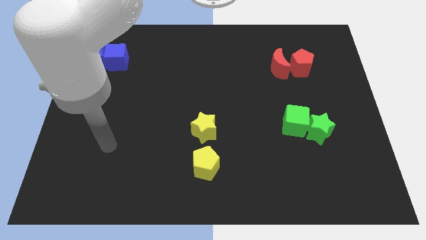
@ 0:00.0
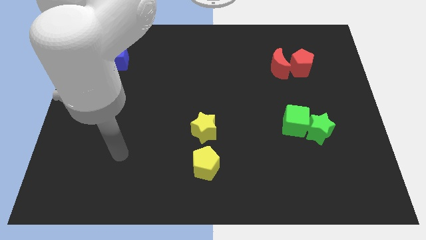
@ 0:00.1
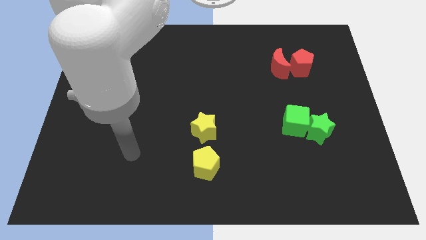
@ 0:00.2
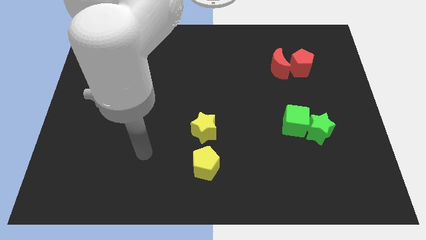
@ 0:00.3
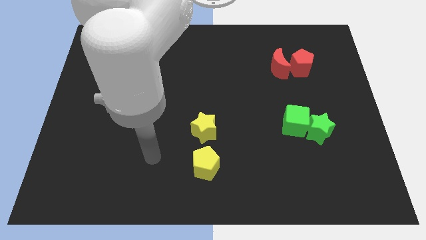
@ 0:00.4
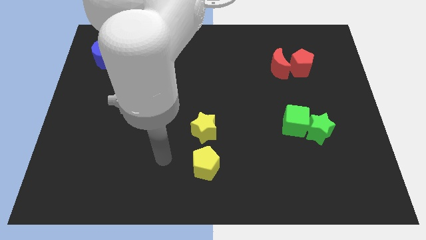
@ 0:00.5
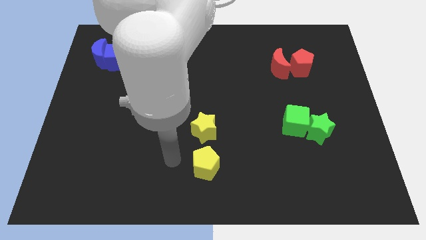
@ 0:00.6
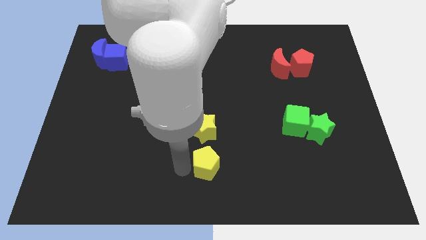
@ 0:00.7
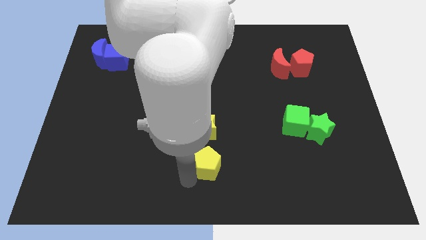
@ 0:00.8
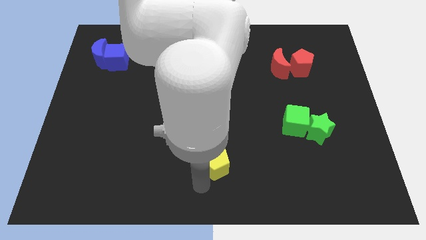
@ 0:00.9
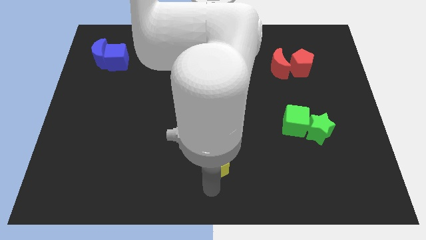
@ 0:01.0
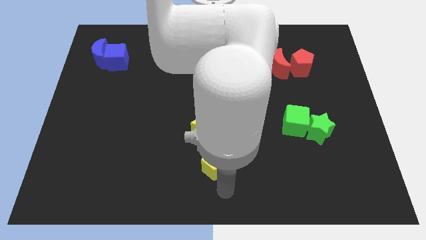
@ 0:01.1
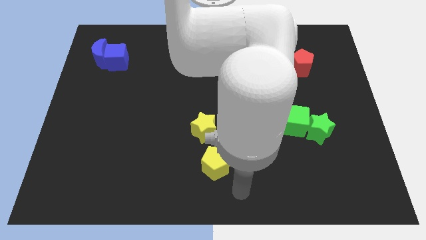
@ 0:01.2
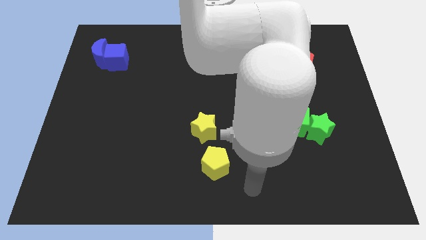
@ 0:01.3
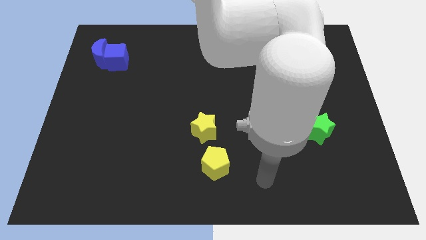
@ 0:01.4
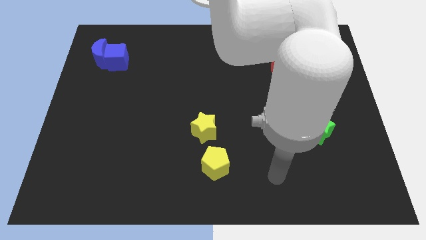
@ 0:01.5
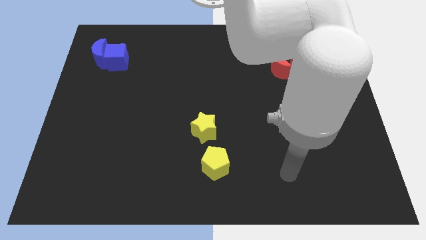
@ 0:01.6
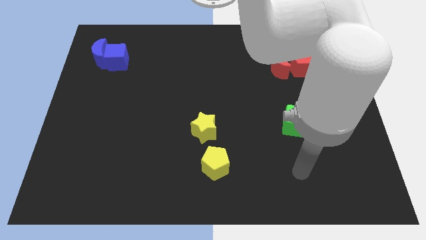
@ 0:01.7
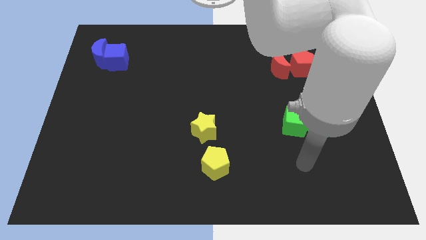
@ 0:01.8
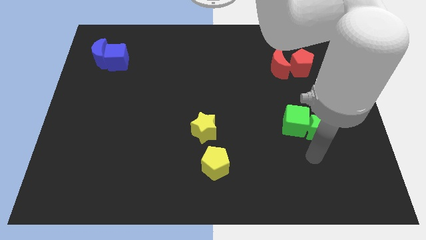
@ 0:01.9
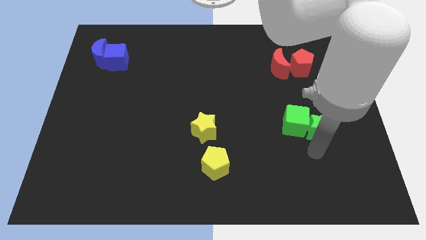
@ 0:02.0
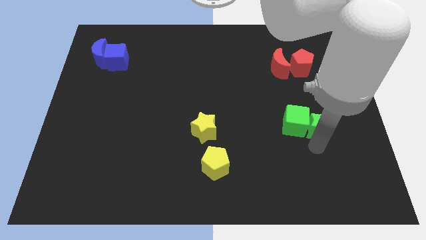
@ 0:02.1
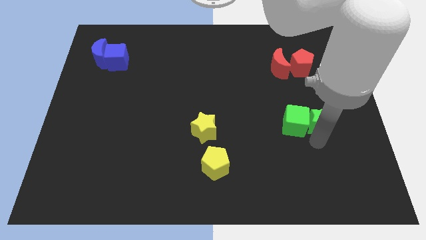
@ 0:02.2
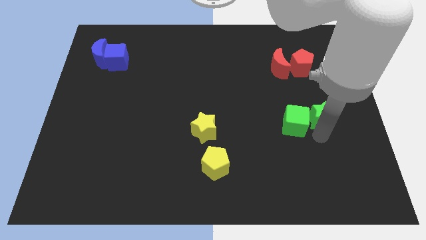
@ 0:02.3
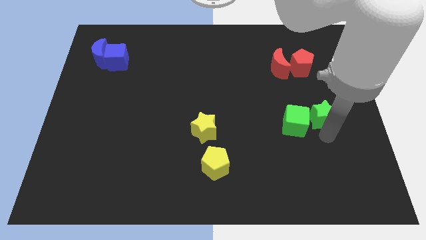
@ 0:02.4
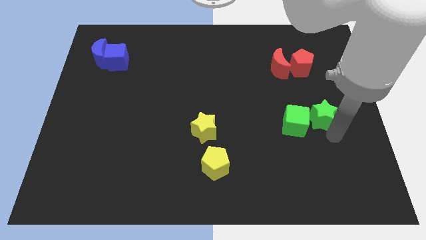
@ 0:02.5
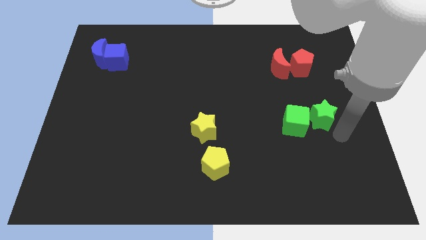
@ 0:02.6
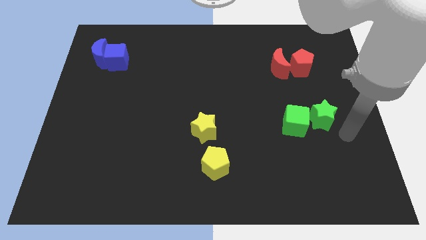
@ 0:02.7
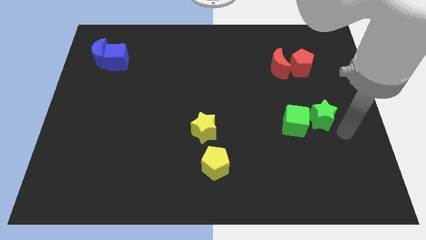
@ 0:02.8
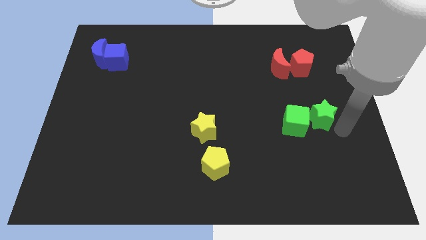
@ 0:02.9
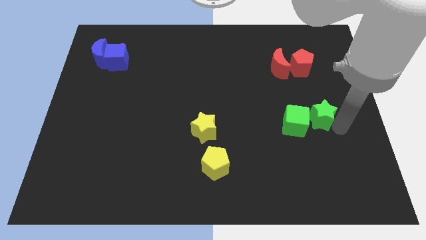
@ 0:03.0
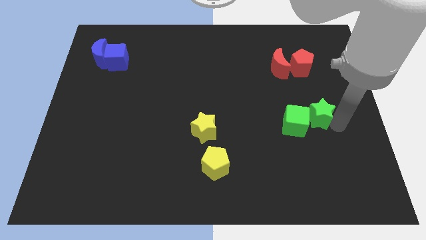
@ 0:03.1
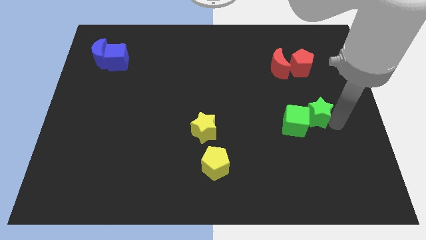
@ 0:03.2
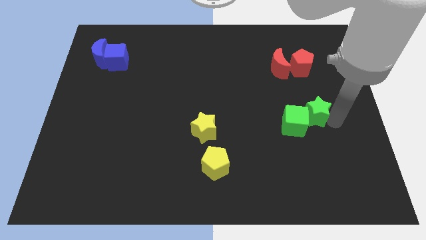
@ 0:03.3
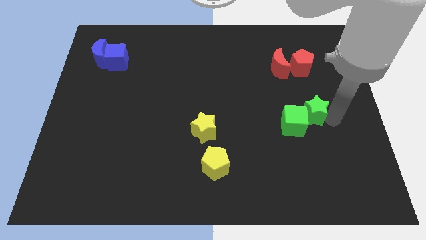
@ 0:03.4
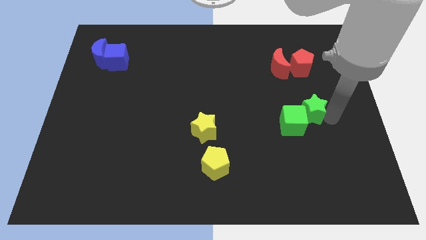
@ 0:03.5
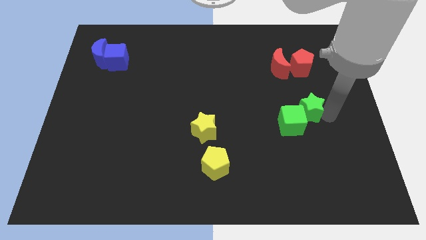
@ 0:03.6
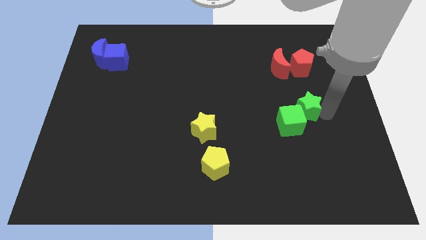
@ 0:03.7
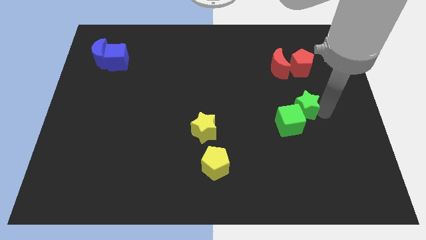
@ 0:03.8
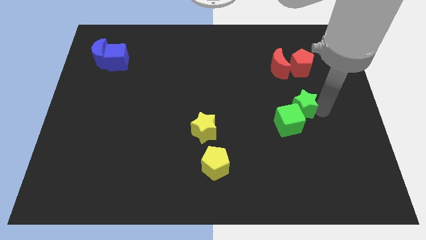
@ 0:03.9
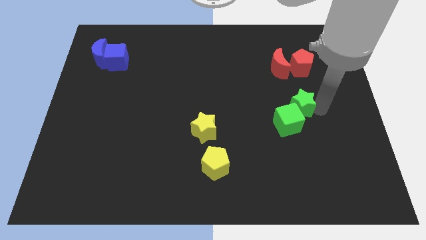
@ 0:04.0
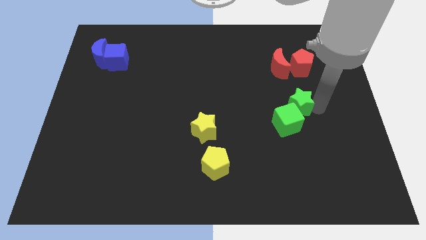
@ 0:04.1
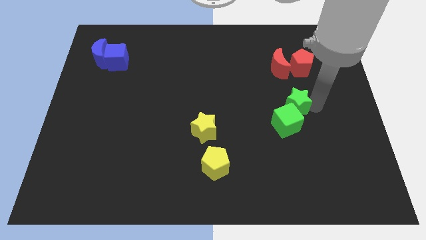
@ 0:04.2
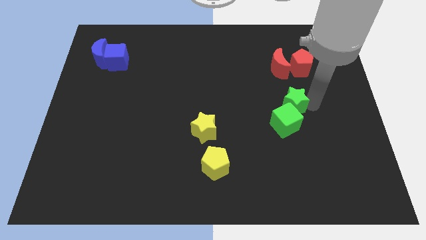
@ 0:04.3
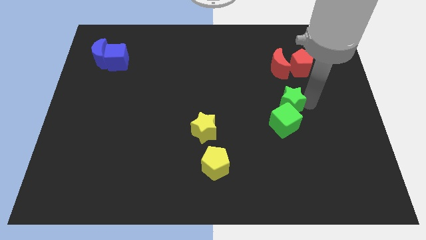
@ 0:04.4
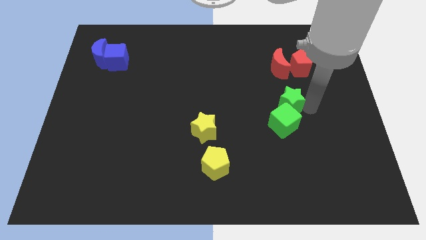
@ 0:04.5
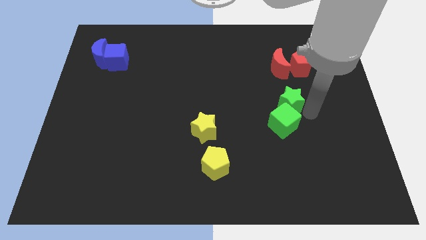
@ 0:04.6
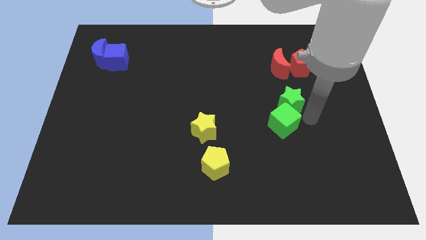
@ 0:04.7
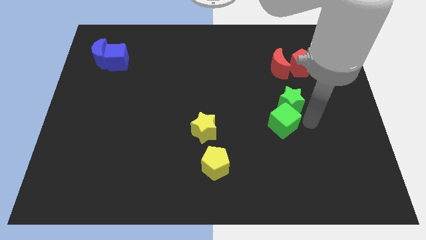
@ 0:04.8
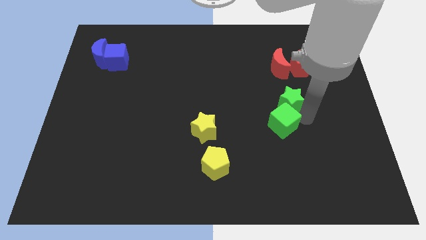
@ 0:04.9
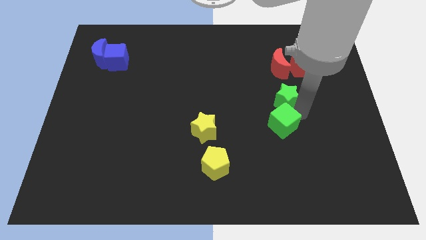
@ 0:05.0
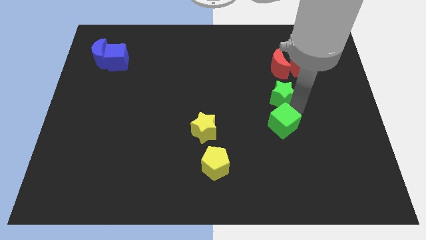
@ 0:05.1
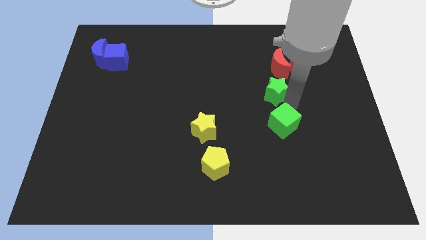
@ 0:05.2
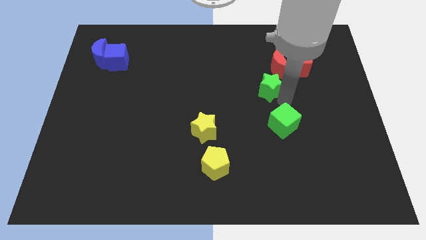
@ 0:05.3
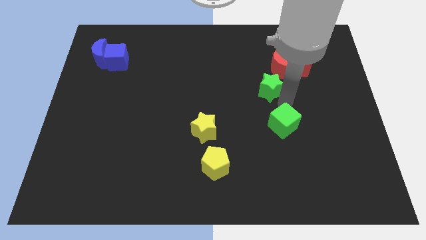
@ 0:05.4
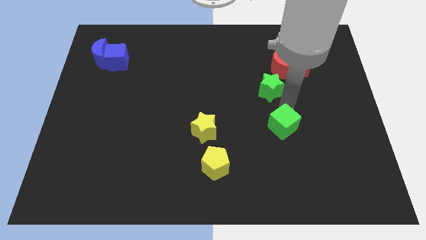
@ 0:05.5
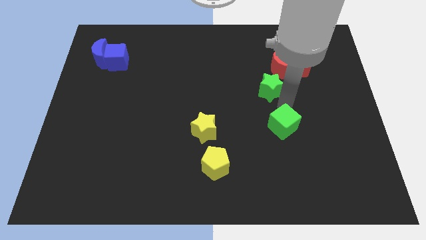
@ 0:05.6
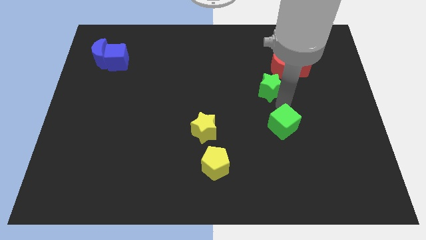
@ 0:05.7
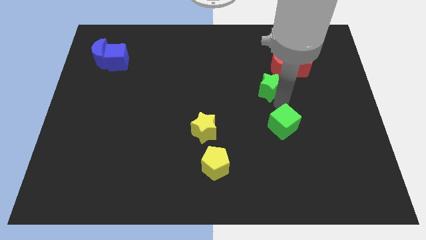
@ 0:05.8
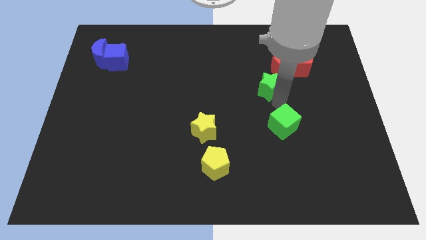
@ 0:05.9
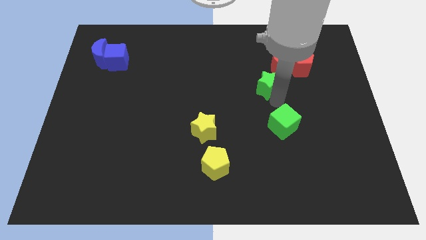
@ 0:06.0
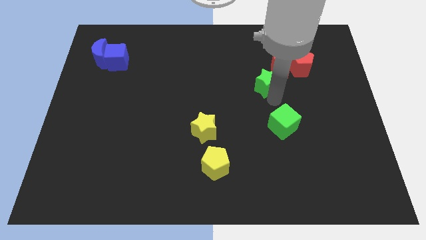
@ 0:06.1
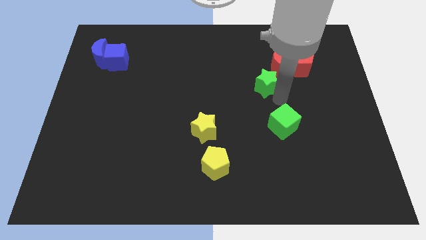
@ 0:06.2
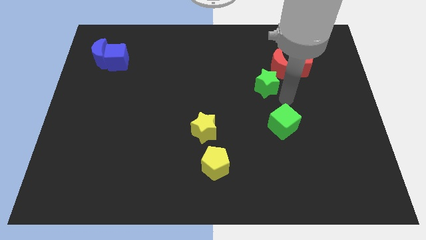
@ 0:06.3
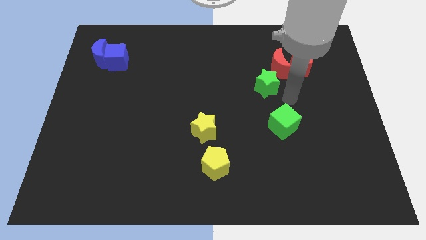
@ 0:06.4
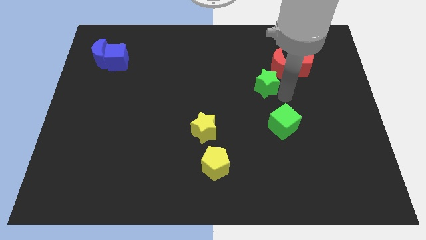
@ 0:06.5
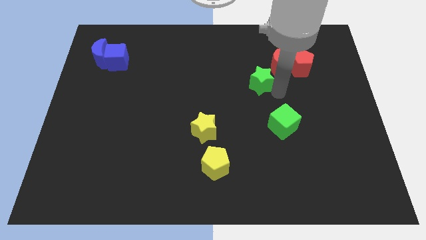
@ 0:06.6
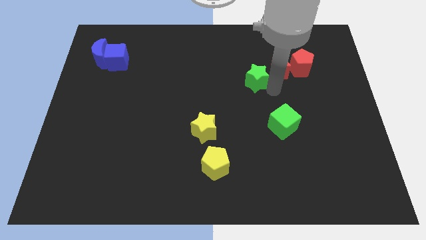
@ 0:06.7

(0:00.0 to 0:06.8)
move the green star upwards and to the left

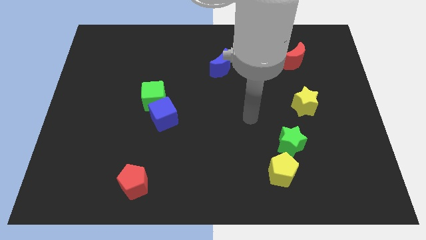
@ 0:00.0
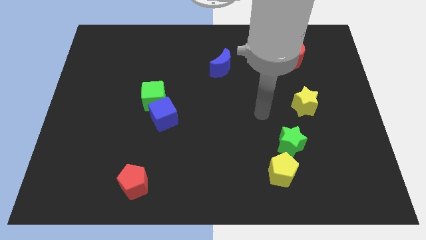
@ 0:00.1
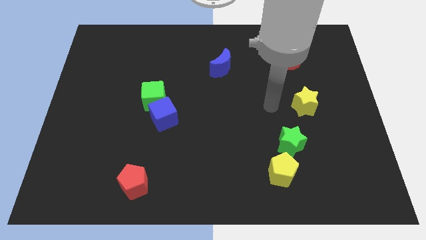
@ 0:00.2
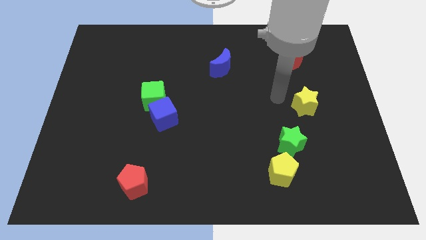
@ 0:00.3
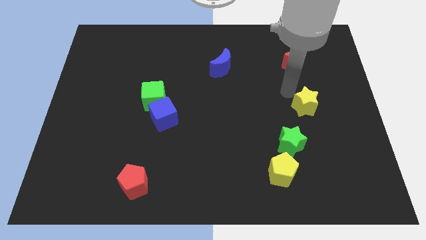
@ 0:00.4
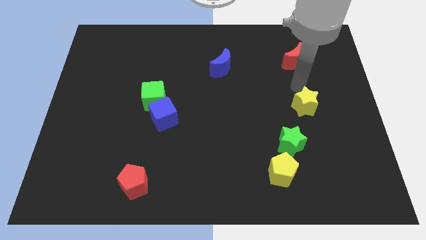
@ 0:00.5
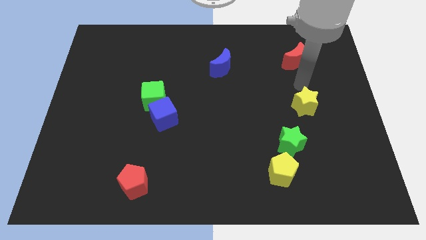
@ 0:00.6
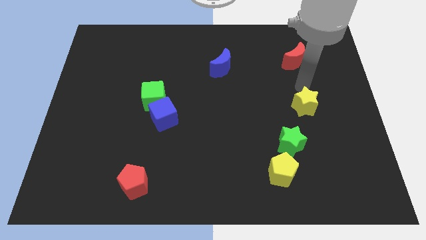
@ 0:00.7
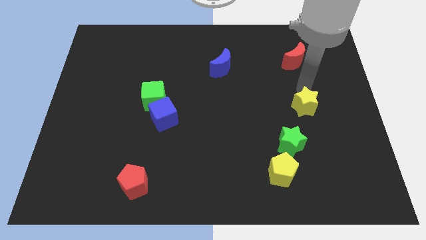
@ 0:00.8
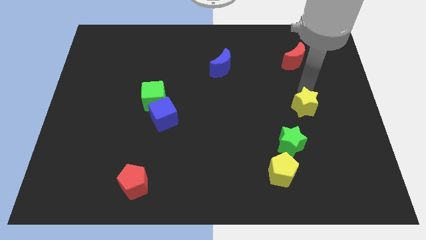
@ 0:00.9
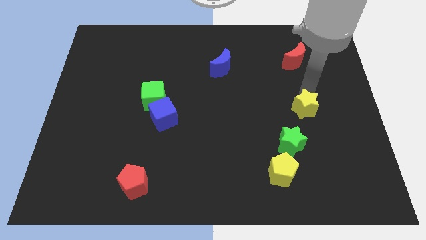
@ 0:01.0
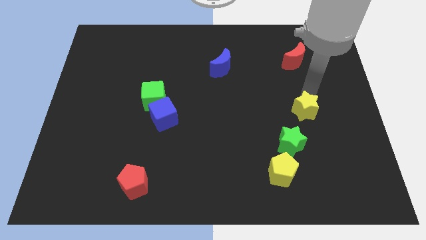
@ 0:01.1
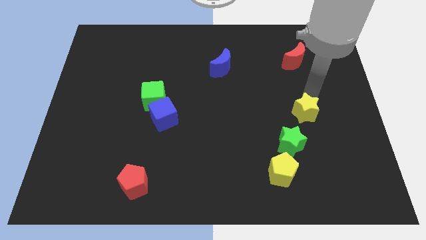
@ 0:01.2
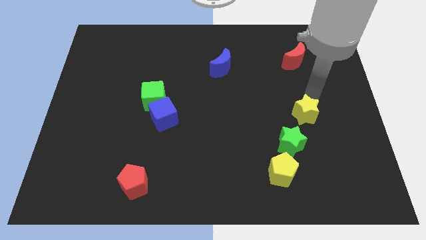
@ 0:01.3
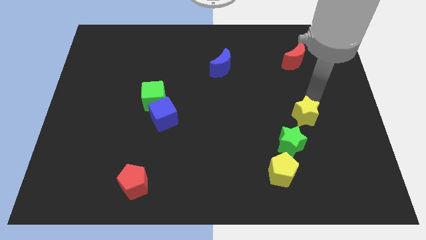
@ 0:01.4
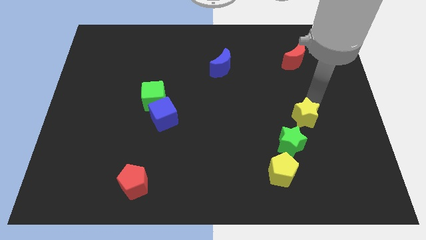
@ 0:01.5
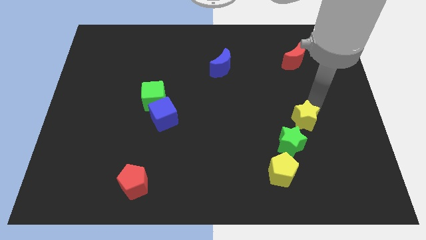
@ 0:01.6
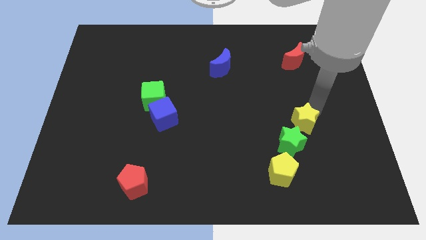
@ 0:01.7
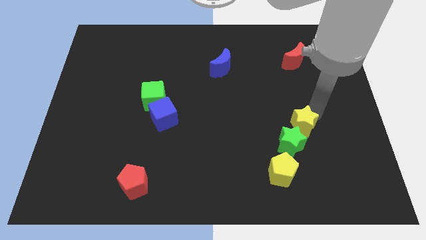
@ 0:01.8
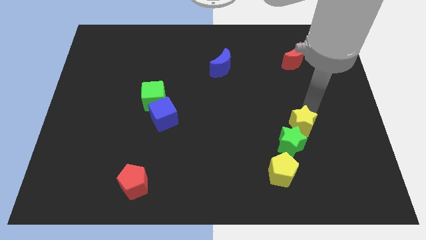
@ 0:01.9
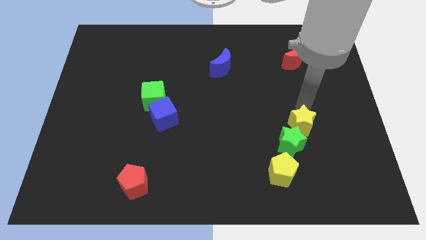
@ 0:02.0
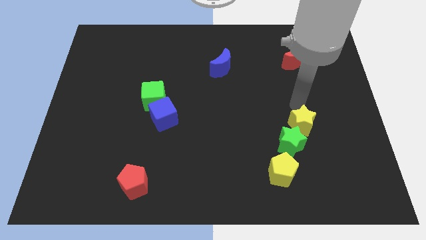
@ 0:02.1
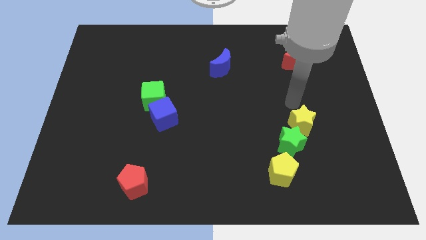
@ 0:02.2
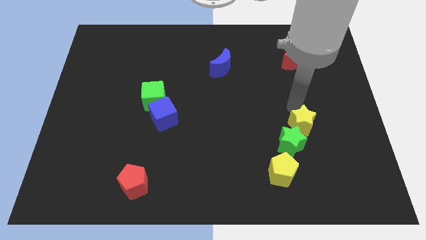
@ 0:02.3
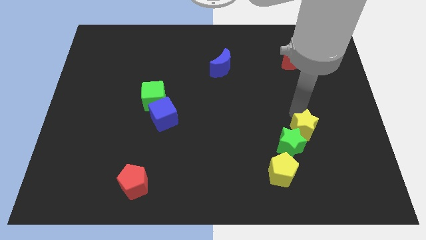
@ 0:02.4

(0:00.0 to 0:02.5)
push the yellow star downwards a bit
